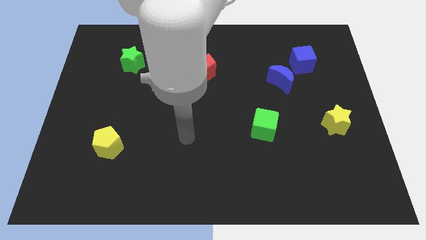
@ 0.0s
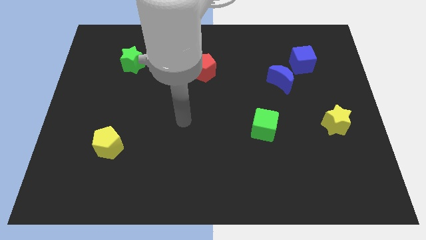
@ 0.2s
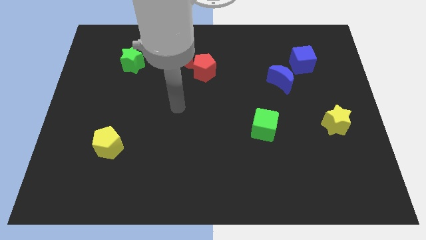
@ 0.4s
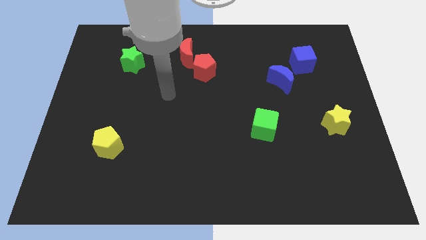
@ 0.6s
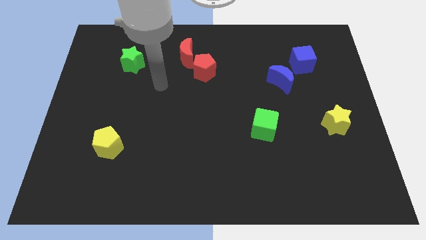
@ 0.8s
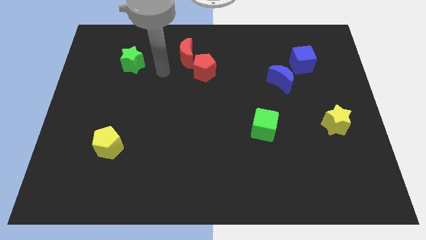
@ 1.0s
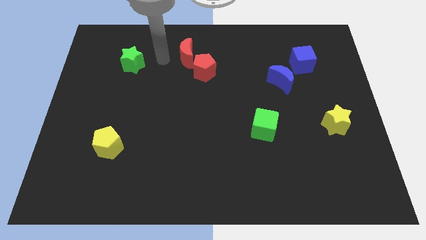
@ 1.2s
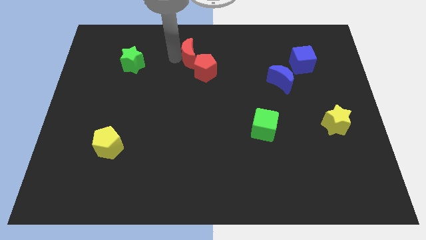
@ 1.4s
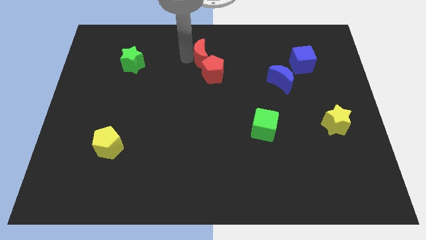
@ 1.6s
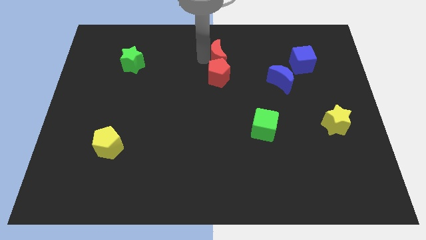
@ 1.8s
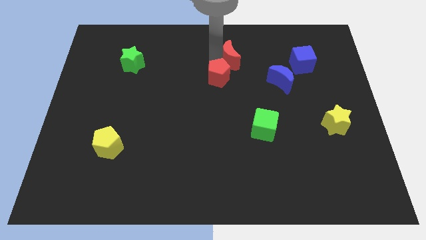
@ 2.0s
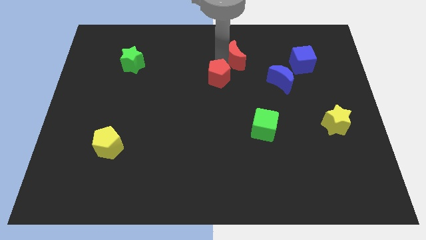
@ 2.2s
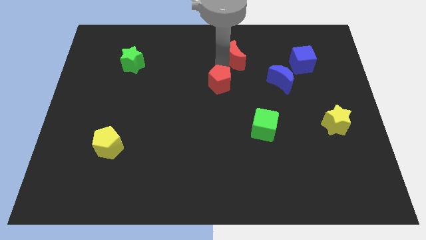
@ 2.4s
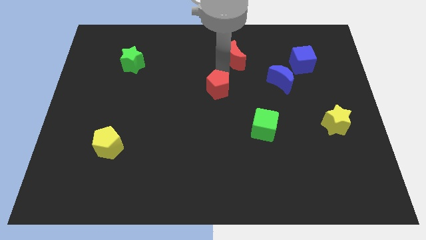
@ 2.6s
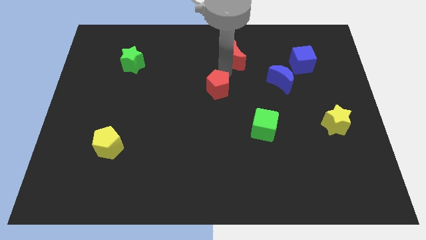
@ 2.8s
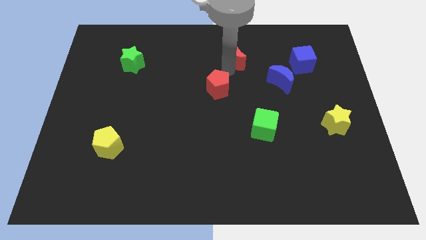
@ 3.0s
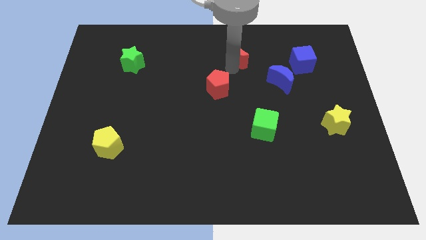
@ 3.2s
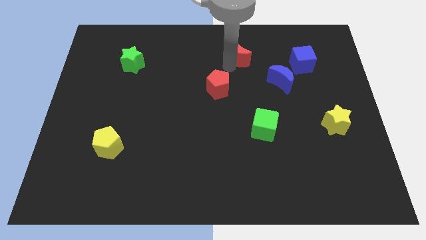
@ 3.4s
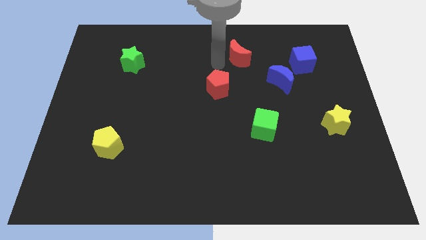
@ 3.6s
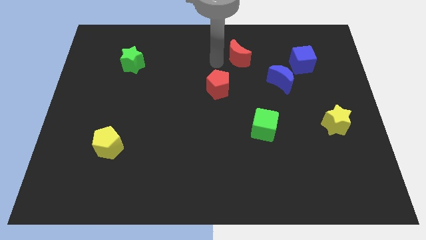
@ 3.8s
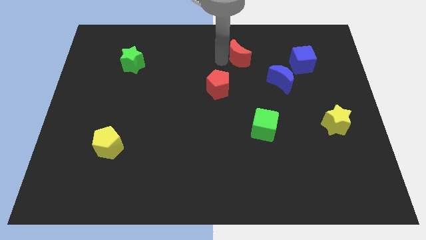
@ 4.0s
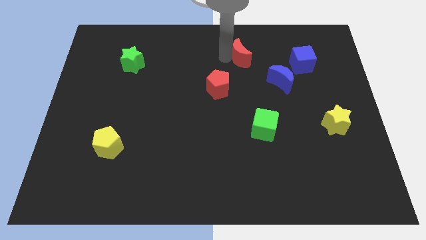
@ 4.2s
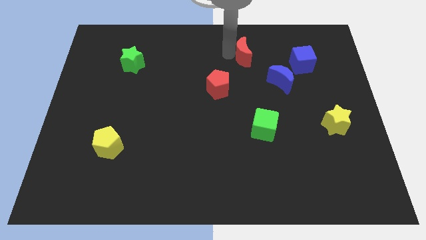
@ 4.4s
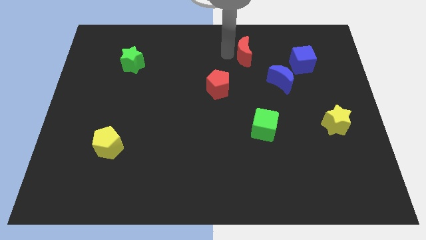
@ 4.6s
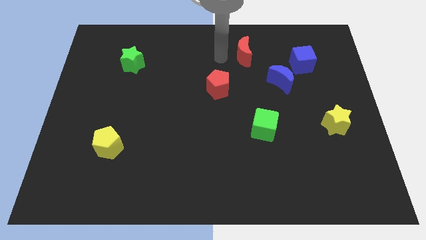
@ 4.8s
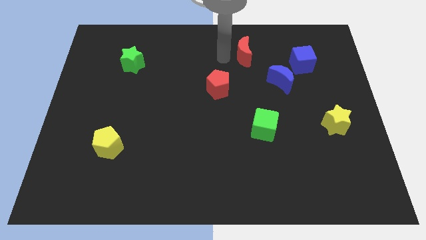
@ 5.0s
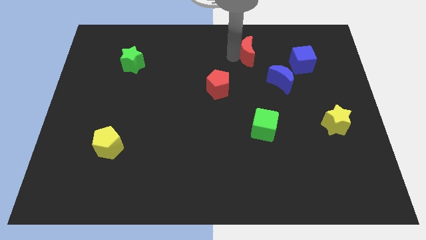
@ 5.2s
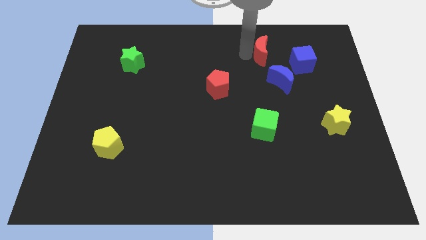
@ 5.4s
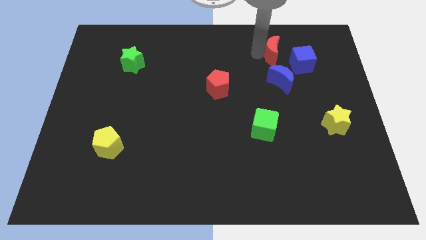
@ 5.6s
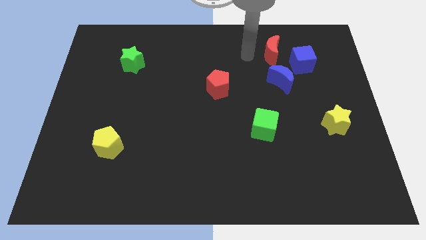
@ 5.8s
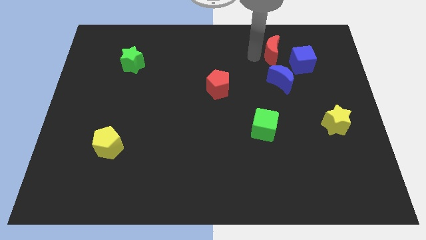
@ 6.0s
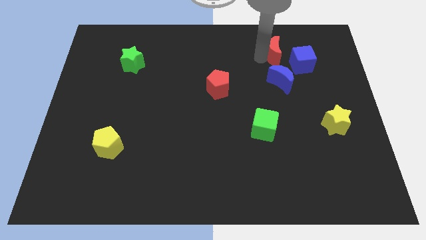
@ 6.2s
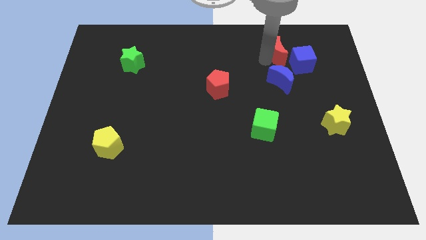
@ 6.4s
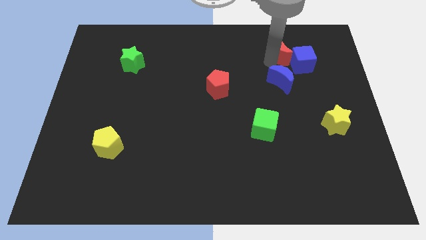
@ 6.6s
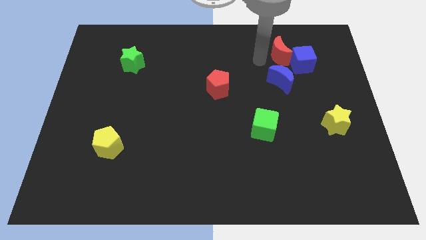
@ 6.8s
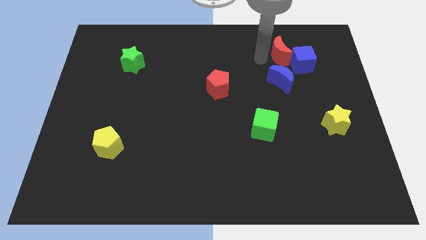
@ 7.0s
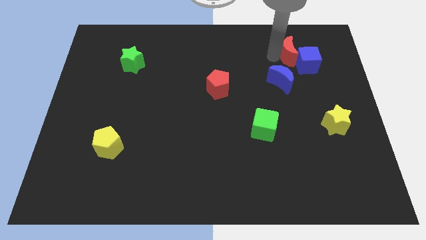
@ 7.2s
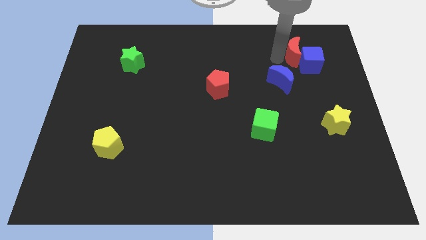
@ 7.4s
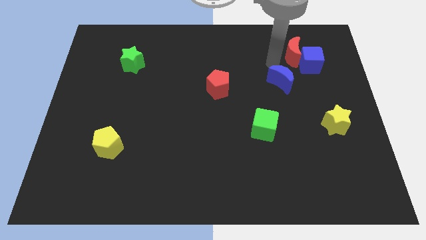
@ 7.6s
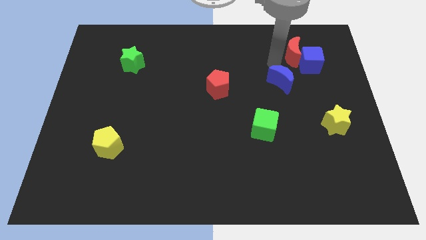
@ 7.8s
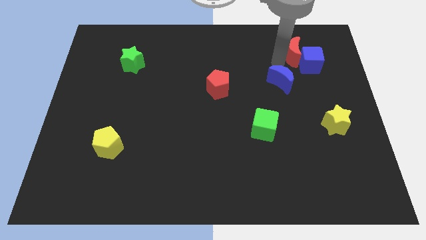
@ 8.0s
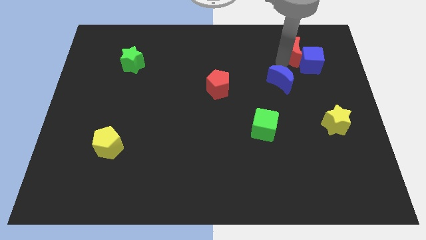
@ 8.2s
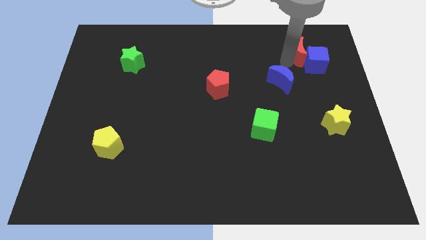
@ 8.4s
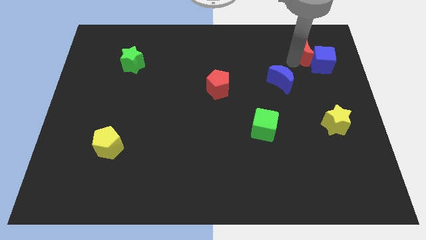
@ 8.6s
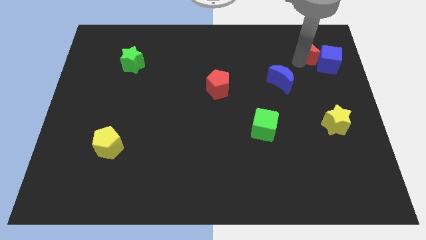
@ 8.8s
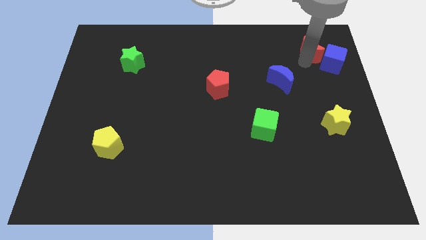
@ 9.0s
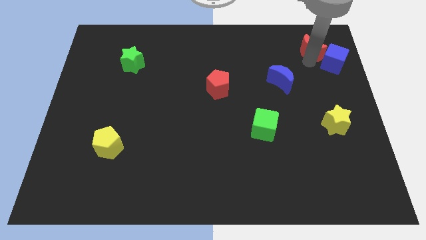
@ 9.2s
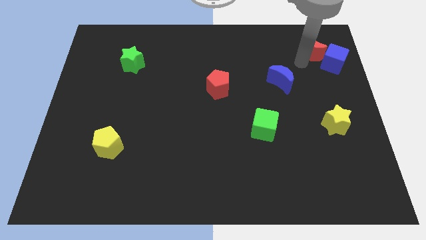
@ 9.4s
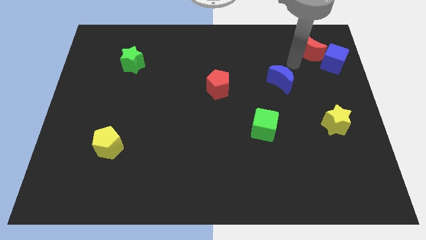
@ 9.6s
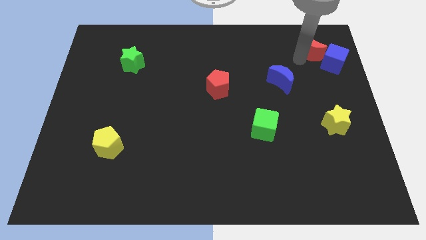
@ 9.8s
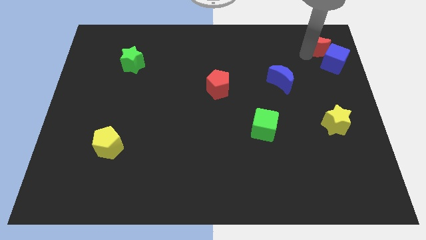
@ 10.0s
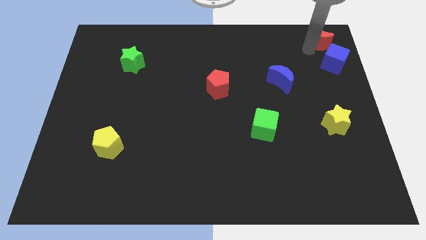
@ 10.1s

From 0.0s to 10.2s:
push the red moon to the top right of the board

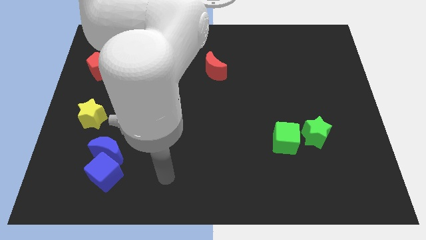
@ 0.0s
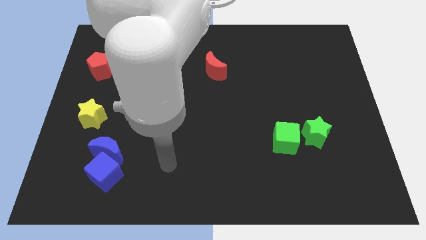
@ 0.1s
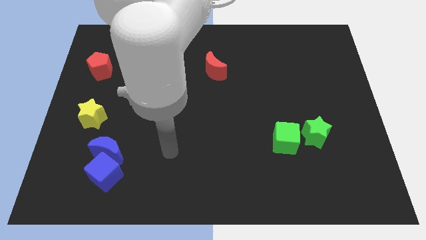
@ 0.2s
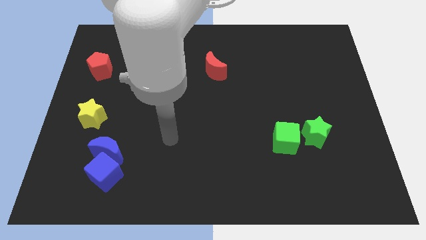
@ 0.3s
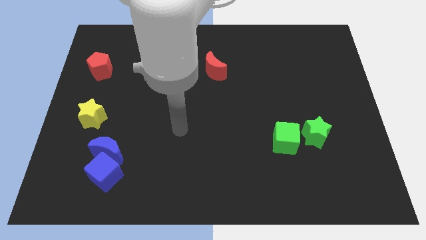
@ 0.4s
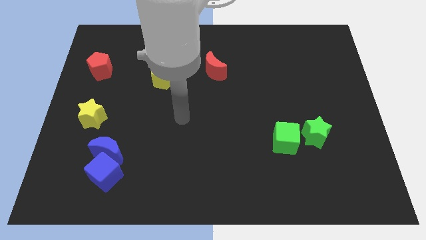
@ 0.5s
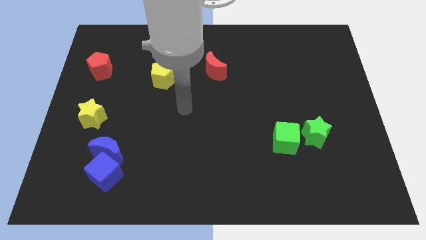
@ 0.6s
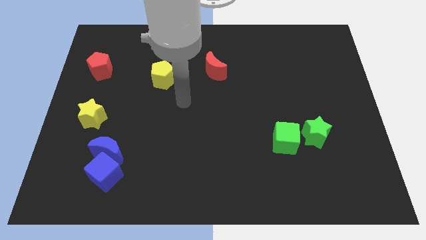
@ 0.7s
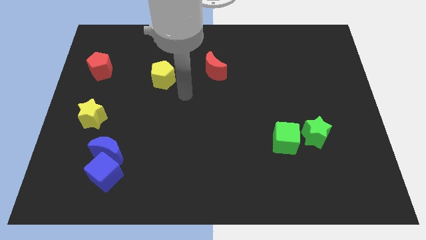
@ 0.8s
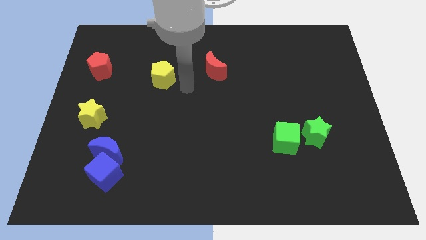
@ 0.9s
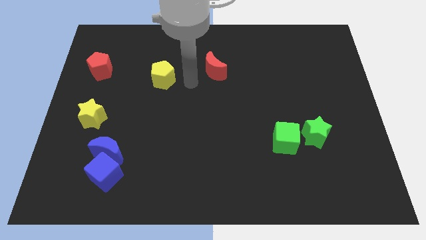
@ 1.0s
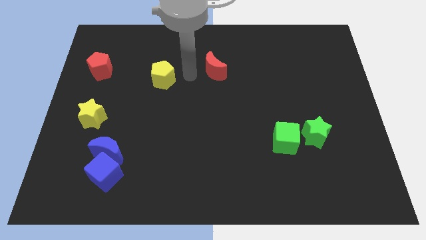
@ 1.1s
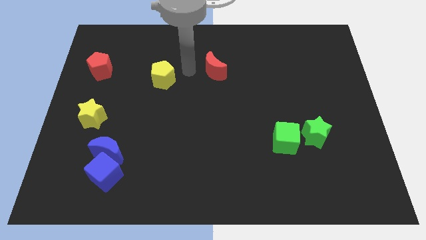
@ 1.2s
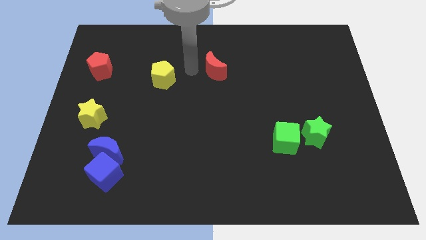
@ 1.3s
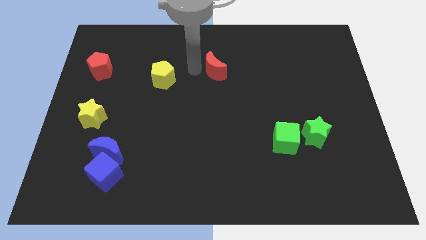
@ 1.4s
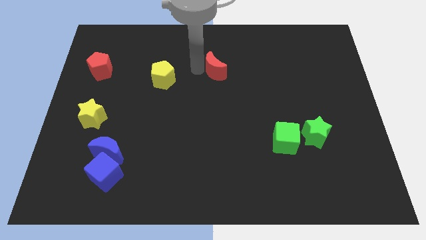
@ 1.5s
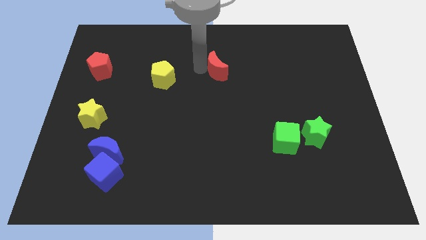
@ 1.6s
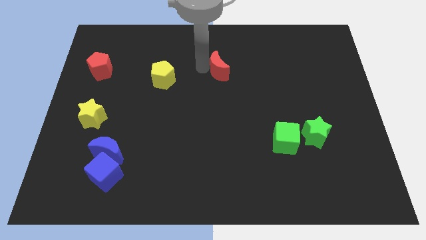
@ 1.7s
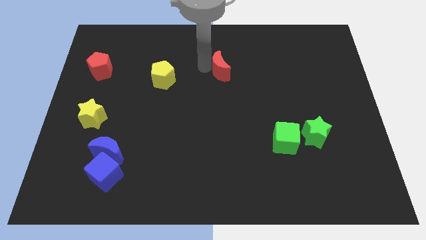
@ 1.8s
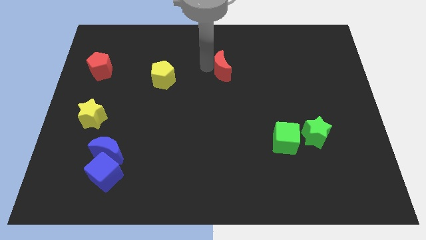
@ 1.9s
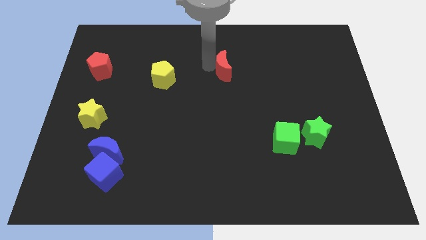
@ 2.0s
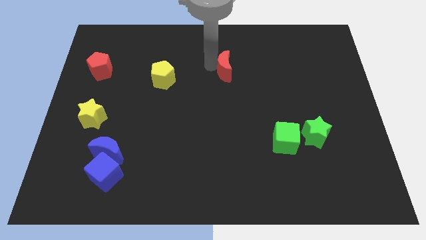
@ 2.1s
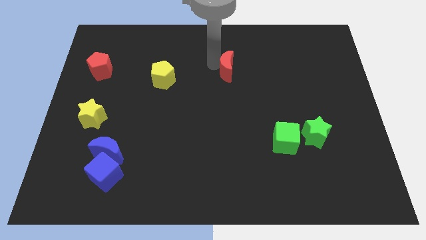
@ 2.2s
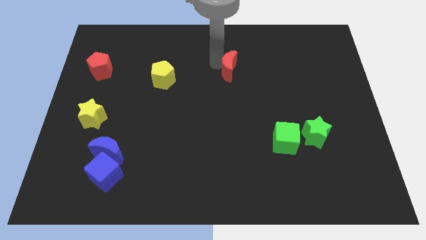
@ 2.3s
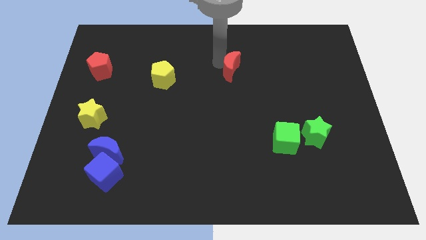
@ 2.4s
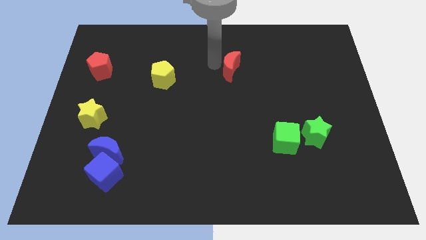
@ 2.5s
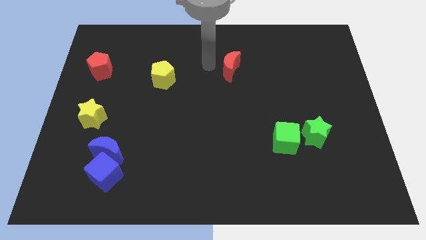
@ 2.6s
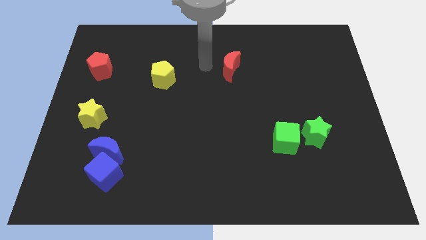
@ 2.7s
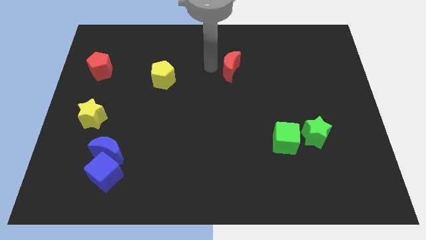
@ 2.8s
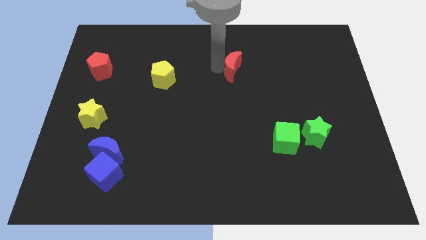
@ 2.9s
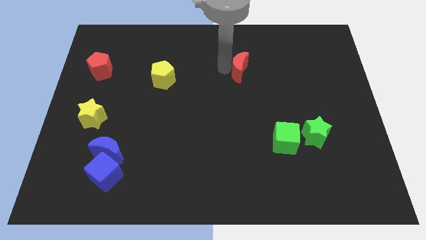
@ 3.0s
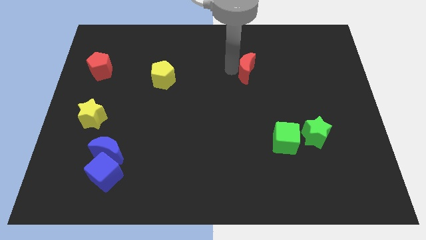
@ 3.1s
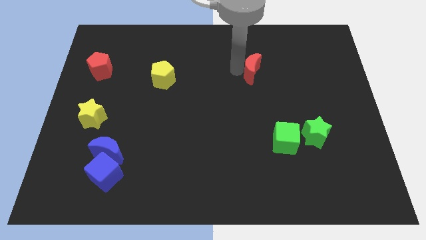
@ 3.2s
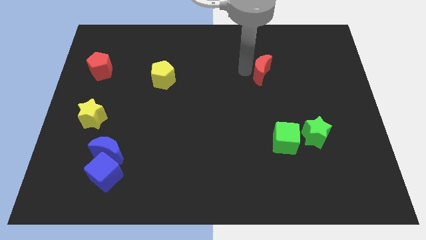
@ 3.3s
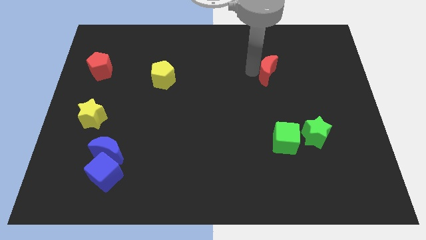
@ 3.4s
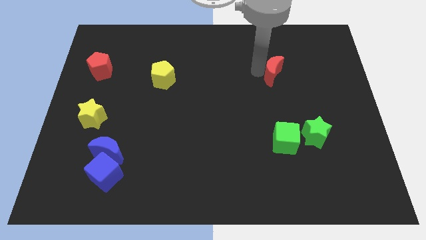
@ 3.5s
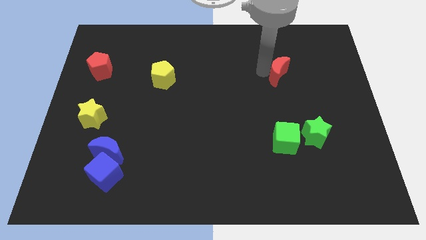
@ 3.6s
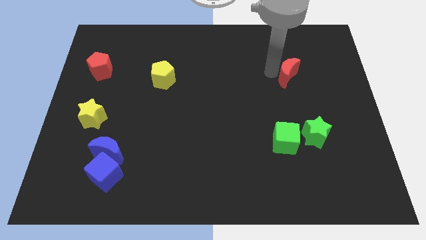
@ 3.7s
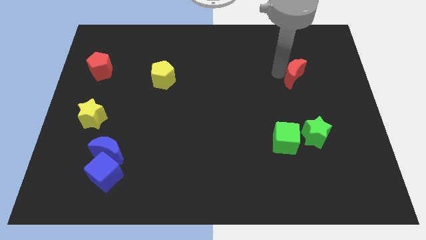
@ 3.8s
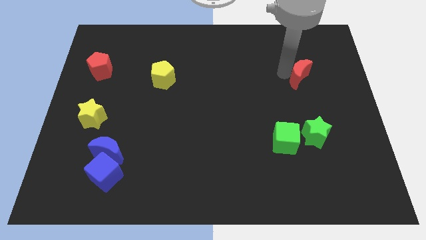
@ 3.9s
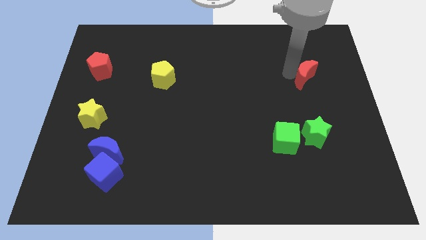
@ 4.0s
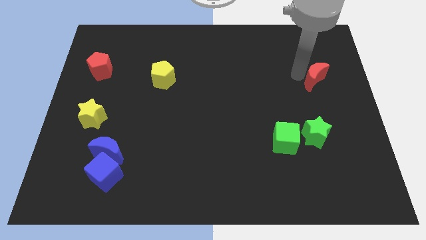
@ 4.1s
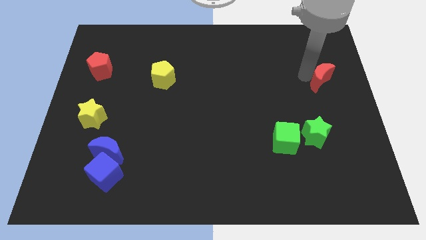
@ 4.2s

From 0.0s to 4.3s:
slide the red moon to the center right
